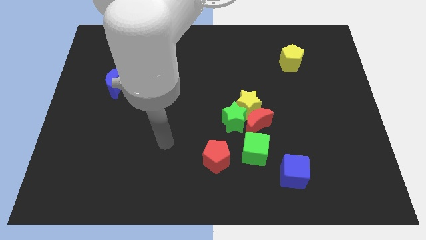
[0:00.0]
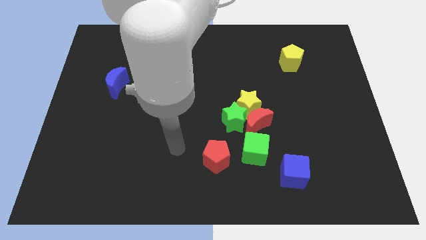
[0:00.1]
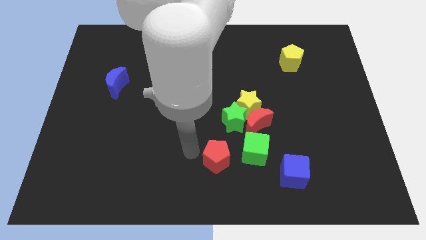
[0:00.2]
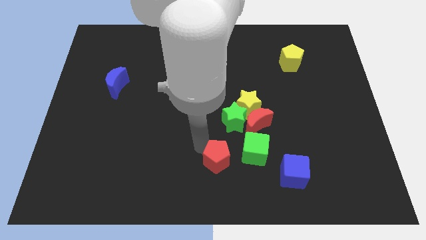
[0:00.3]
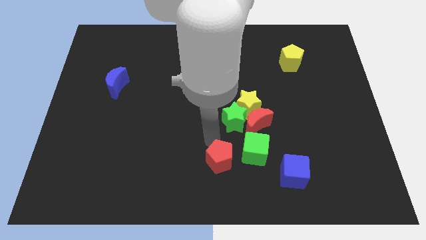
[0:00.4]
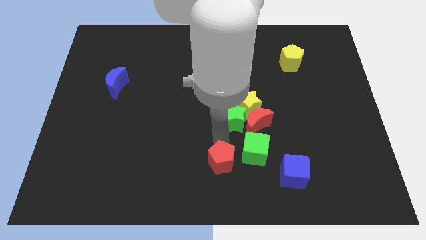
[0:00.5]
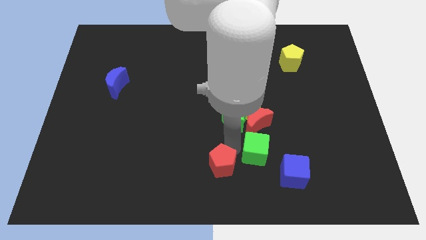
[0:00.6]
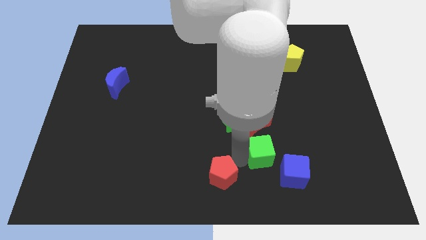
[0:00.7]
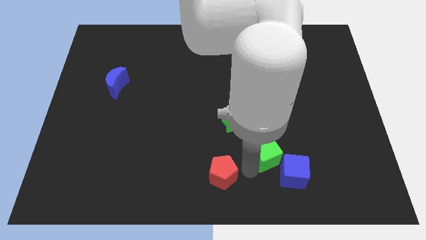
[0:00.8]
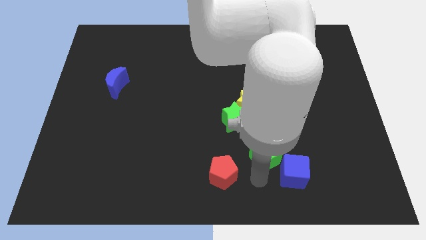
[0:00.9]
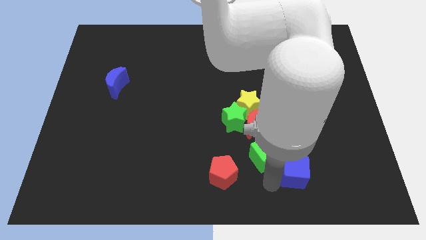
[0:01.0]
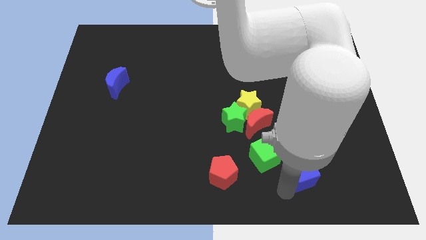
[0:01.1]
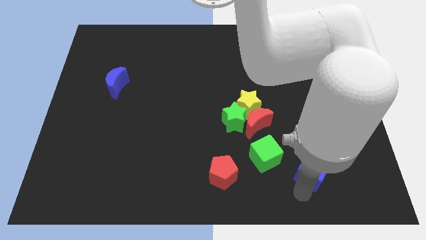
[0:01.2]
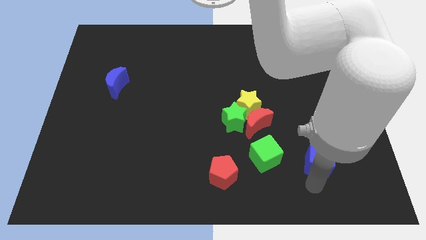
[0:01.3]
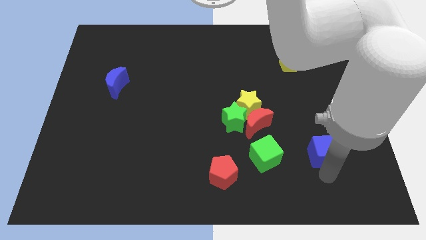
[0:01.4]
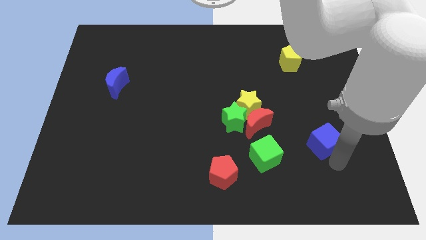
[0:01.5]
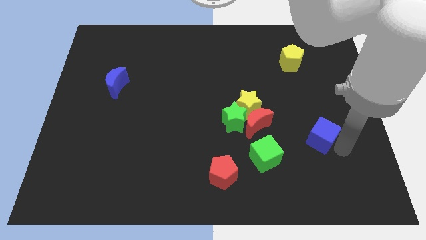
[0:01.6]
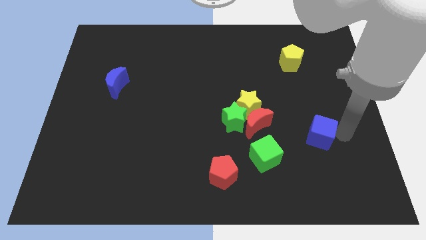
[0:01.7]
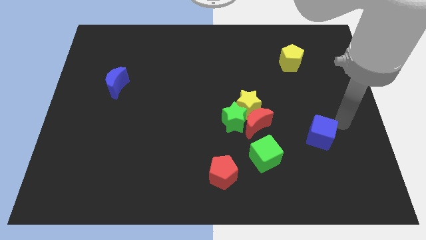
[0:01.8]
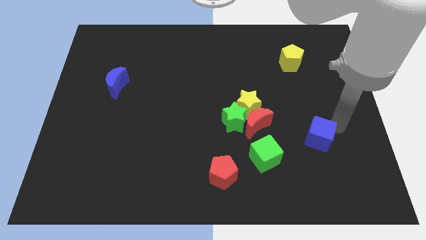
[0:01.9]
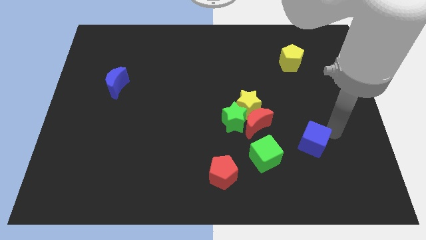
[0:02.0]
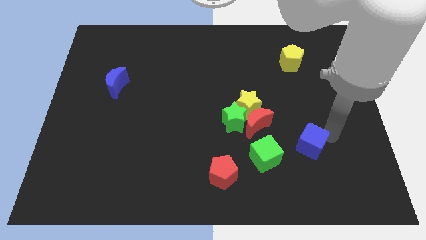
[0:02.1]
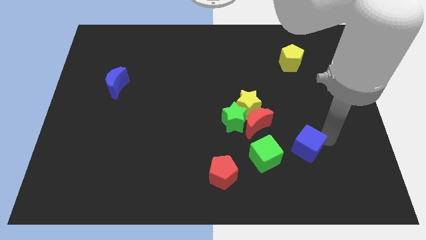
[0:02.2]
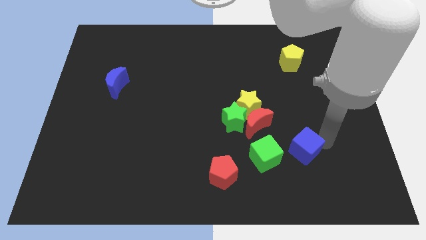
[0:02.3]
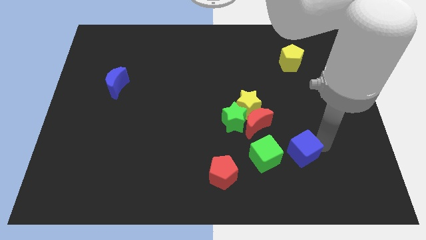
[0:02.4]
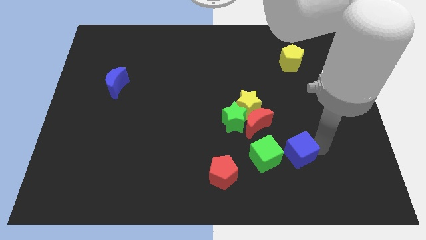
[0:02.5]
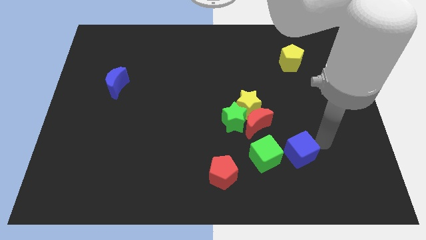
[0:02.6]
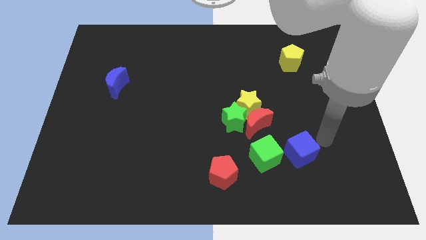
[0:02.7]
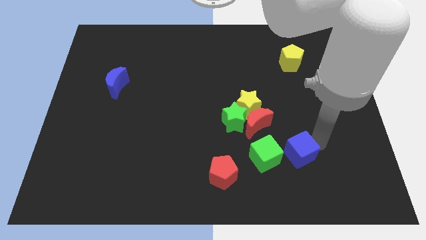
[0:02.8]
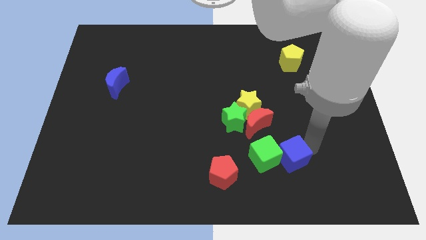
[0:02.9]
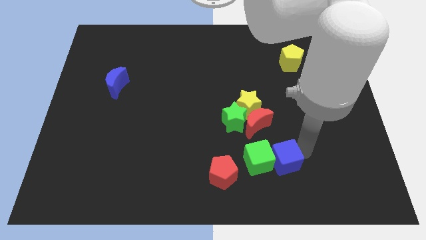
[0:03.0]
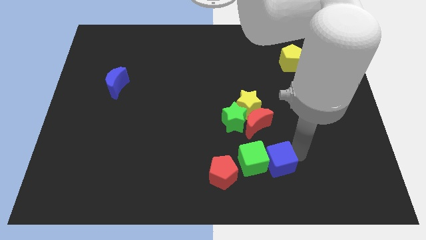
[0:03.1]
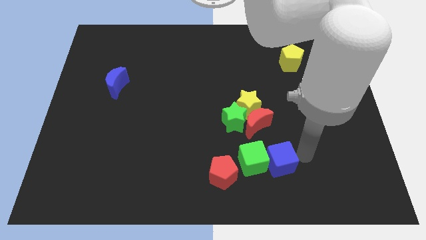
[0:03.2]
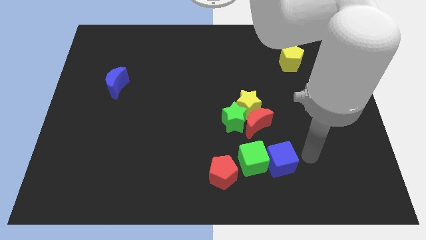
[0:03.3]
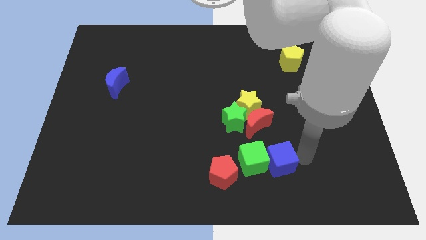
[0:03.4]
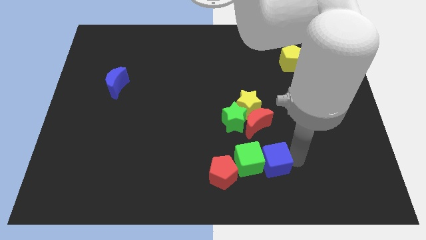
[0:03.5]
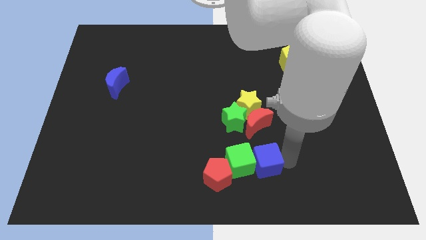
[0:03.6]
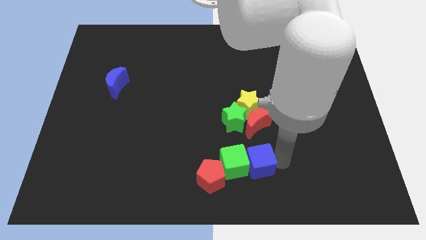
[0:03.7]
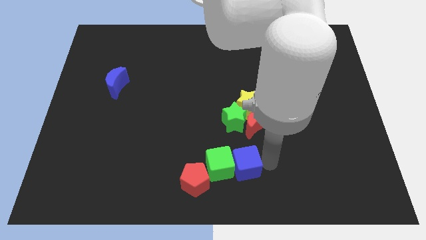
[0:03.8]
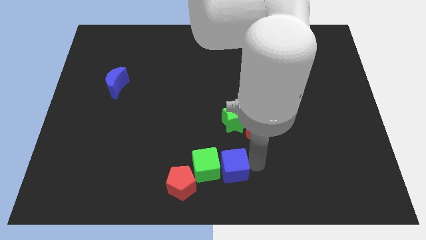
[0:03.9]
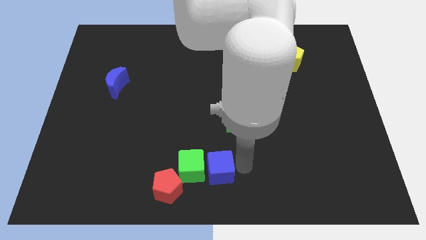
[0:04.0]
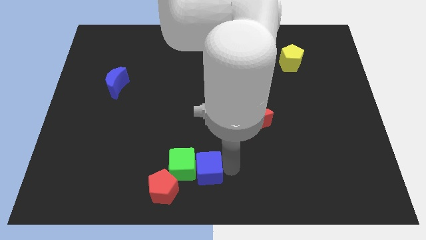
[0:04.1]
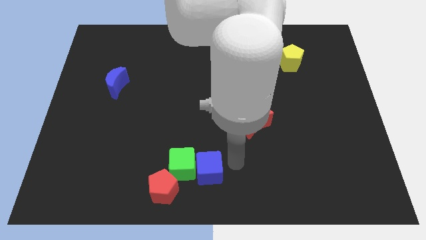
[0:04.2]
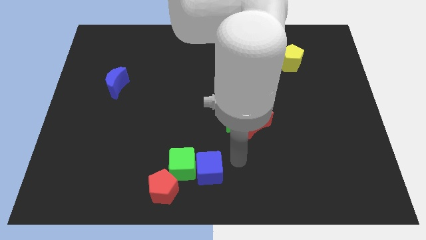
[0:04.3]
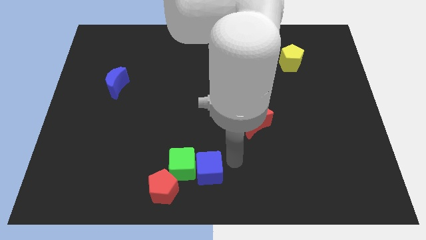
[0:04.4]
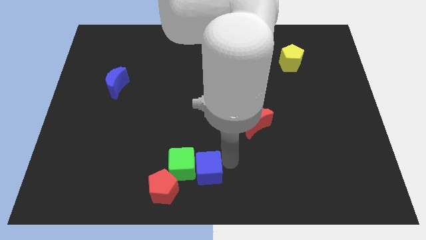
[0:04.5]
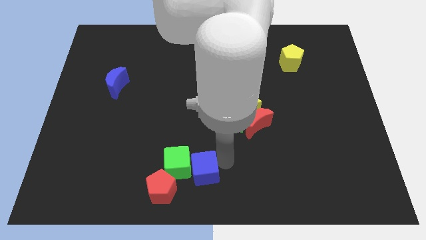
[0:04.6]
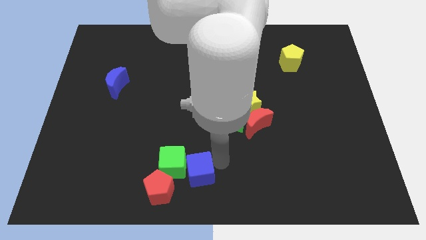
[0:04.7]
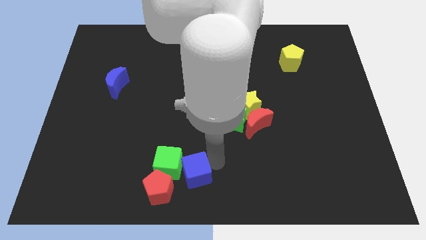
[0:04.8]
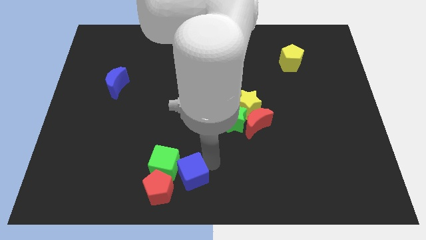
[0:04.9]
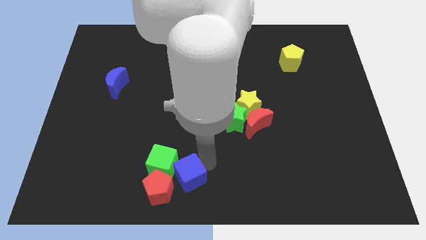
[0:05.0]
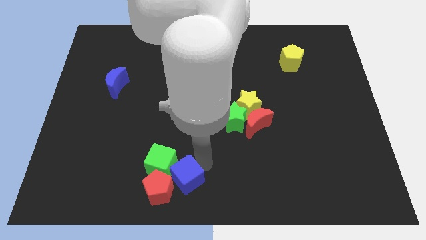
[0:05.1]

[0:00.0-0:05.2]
move the blue cube close to the red pentagon

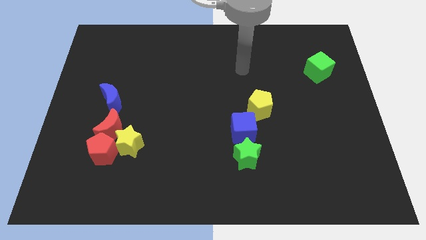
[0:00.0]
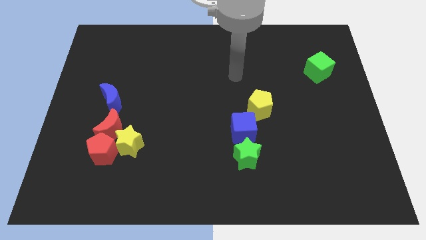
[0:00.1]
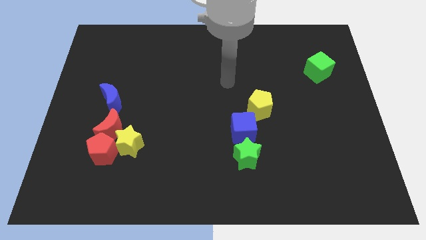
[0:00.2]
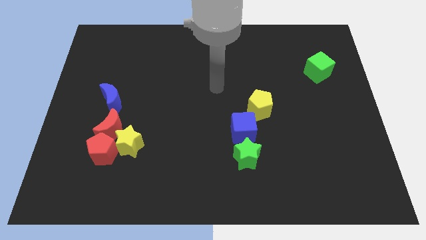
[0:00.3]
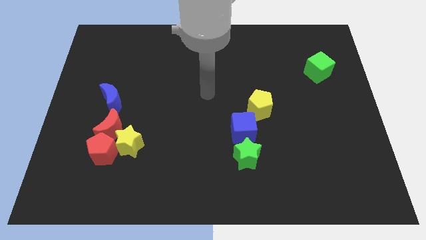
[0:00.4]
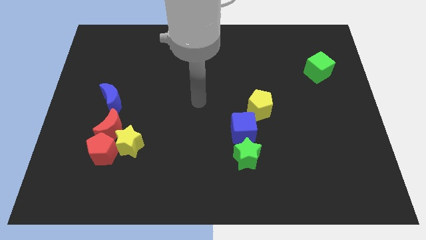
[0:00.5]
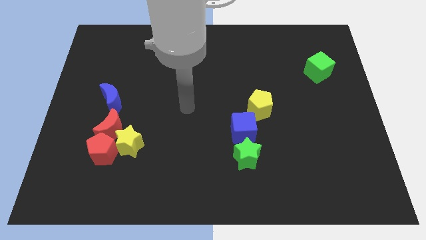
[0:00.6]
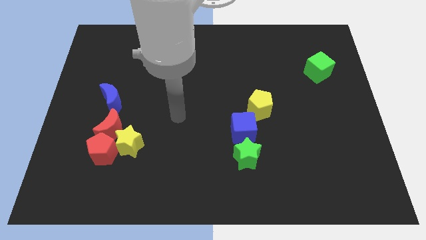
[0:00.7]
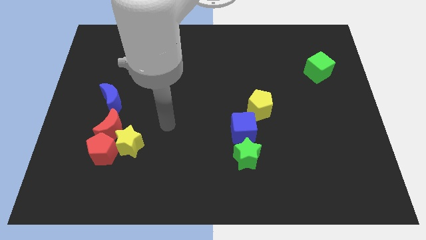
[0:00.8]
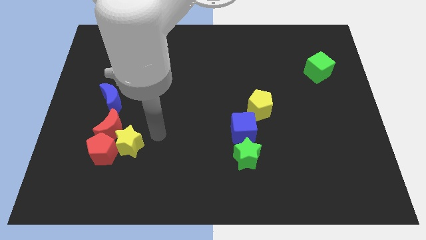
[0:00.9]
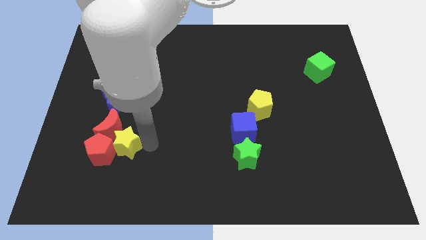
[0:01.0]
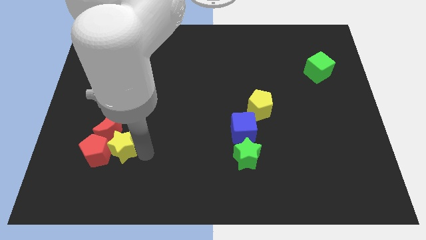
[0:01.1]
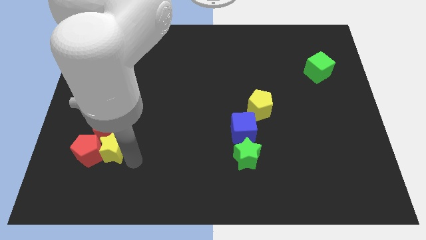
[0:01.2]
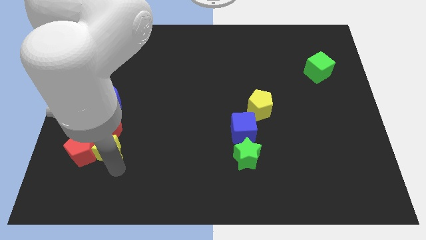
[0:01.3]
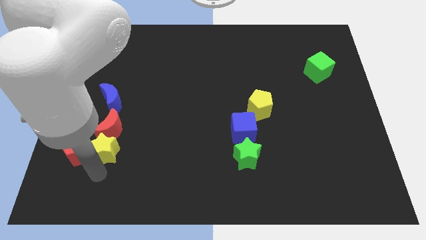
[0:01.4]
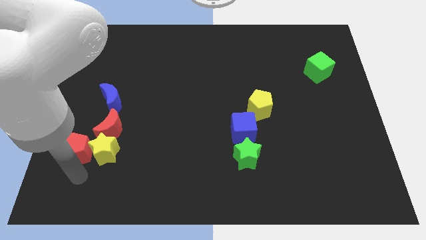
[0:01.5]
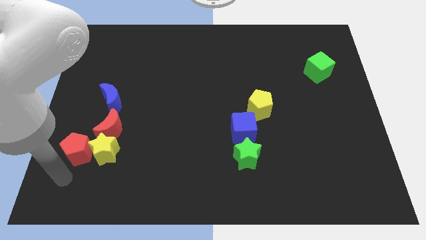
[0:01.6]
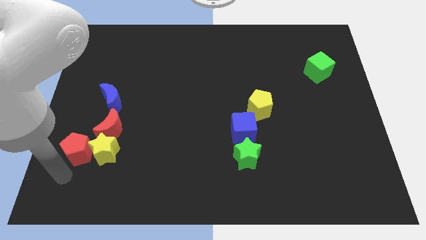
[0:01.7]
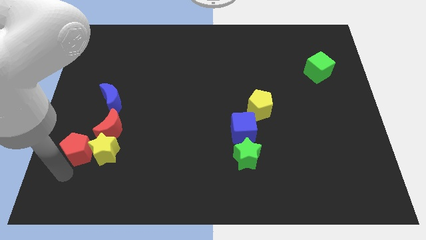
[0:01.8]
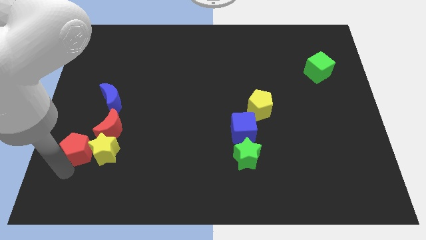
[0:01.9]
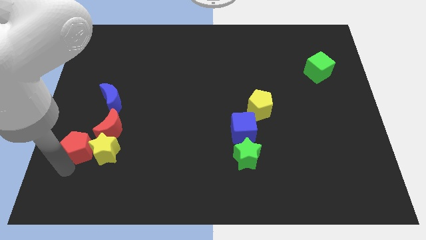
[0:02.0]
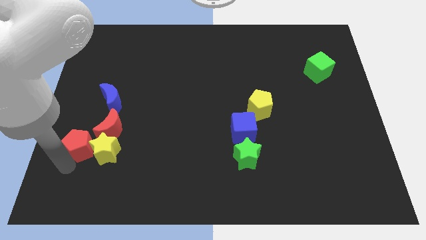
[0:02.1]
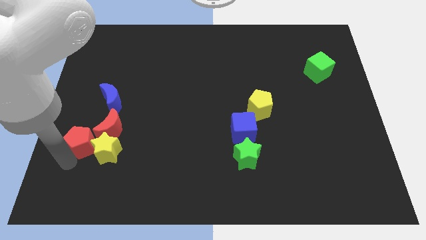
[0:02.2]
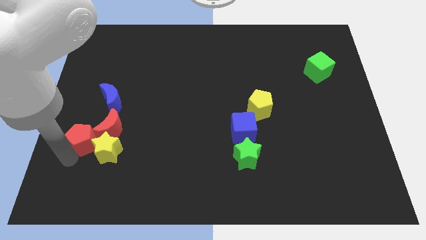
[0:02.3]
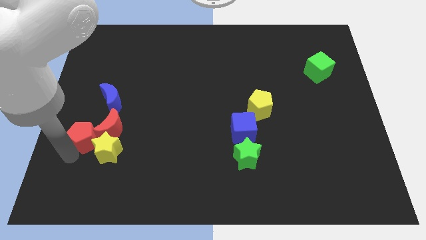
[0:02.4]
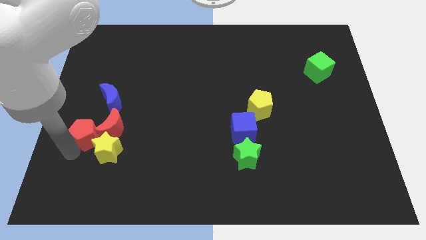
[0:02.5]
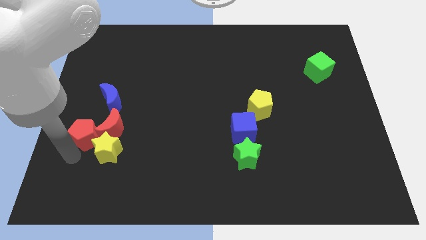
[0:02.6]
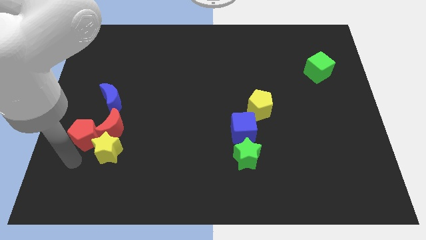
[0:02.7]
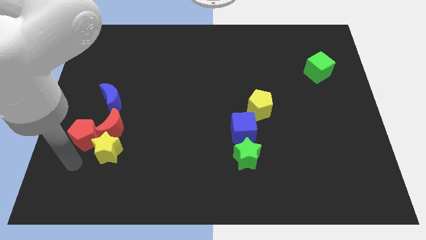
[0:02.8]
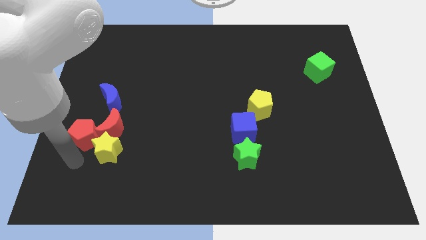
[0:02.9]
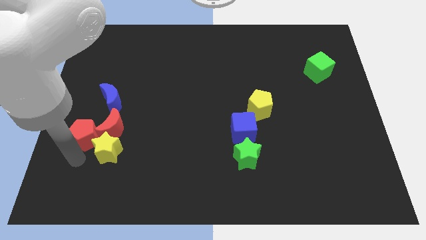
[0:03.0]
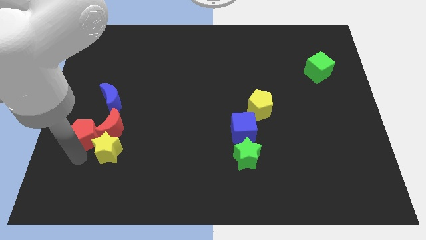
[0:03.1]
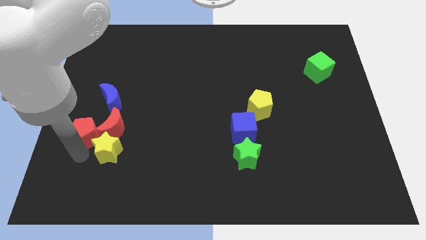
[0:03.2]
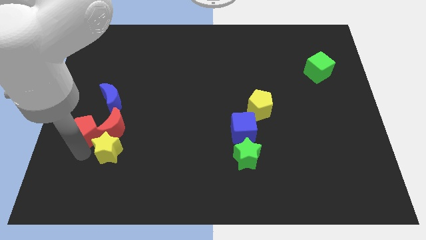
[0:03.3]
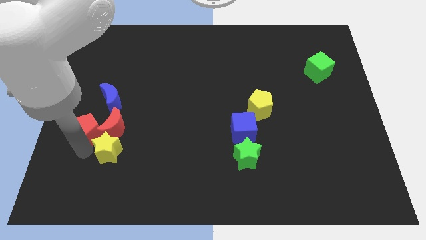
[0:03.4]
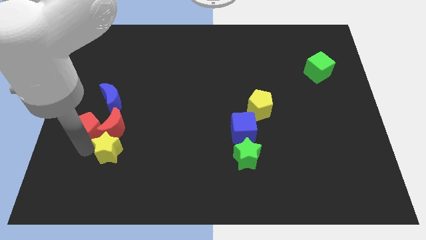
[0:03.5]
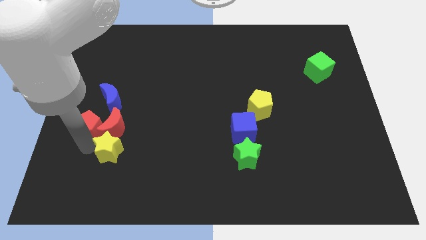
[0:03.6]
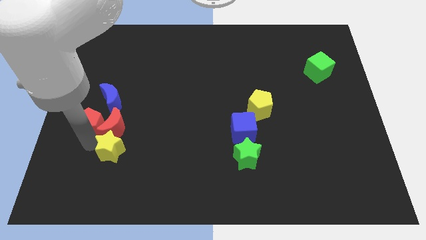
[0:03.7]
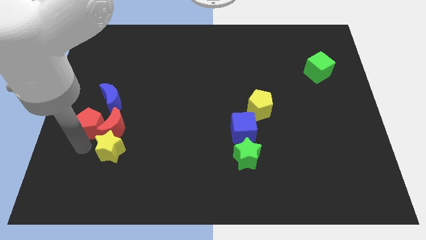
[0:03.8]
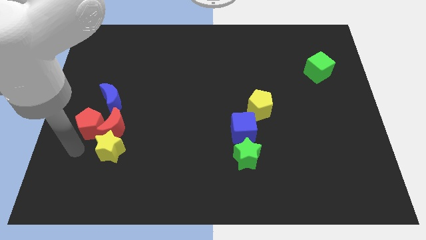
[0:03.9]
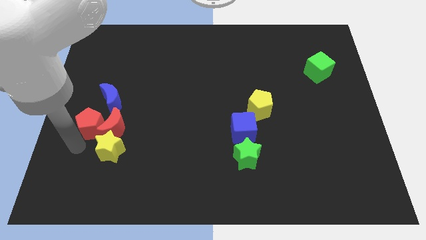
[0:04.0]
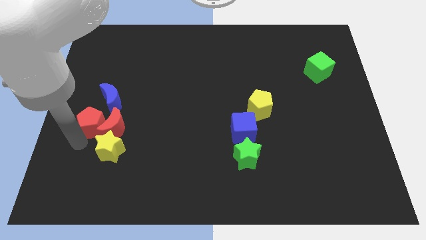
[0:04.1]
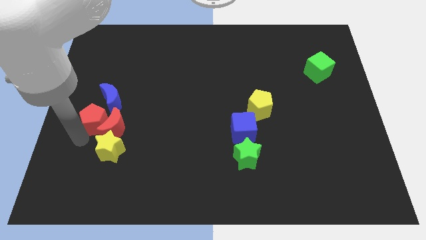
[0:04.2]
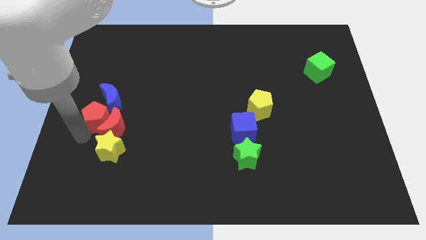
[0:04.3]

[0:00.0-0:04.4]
move the red pentagon towards the blue moon
